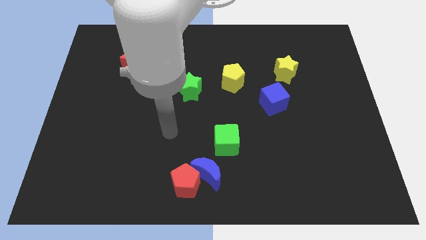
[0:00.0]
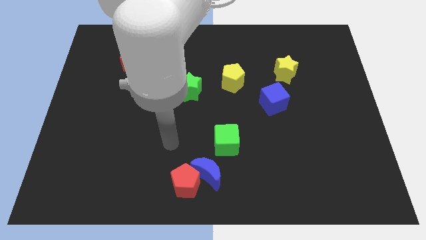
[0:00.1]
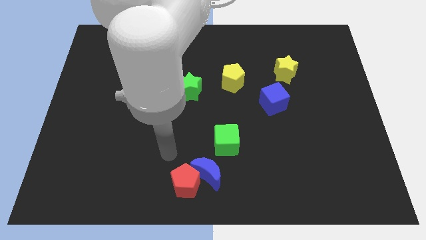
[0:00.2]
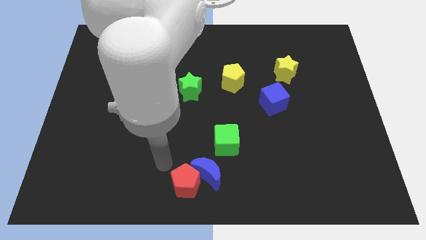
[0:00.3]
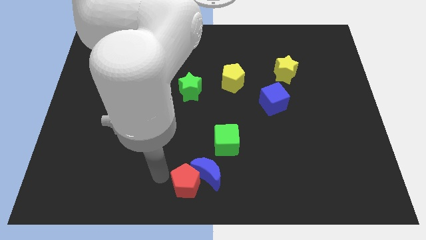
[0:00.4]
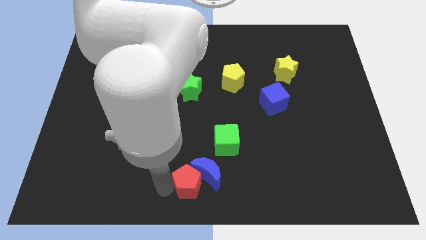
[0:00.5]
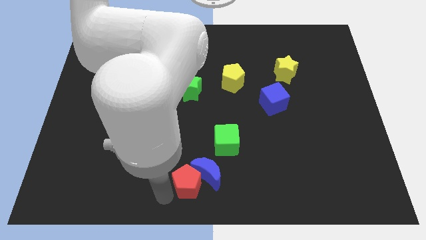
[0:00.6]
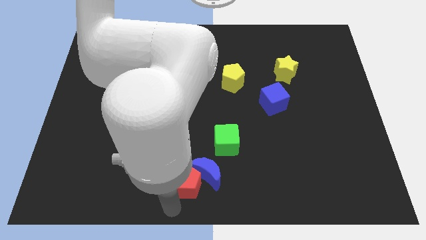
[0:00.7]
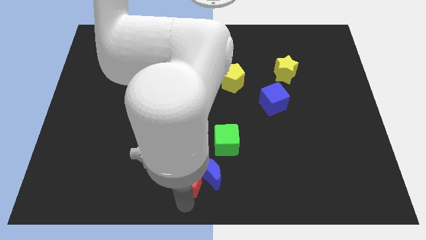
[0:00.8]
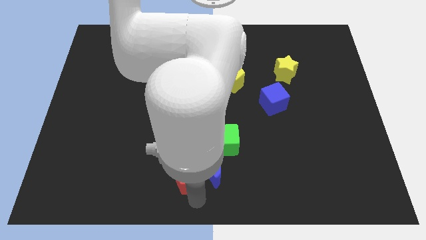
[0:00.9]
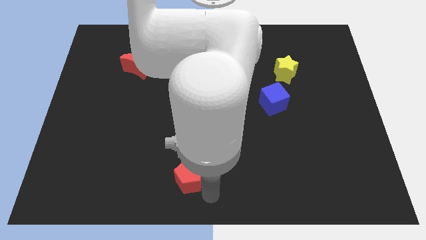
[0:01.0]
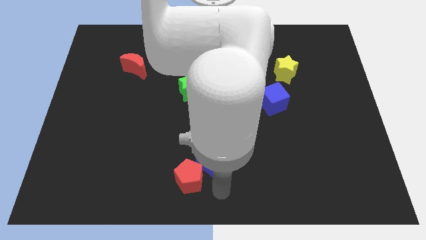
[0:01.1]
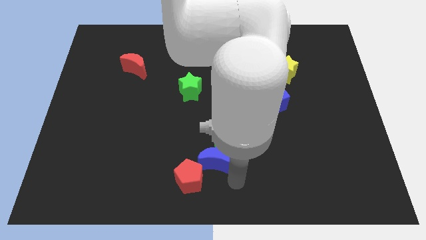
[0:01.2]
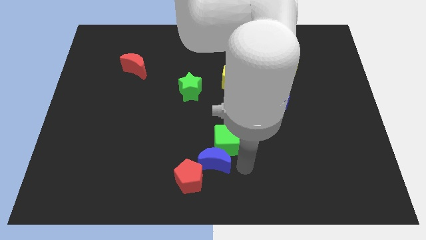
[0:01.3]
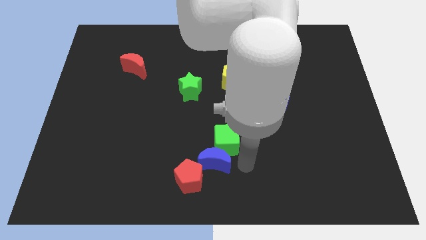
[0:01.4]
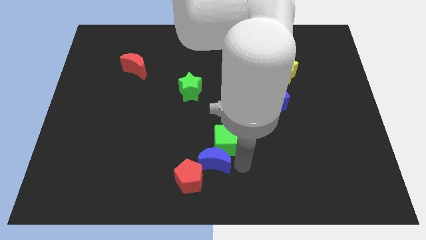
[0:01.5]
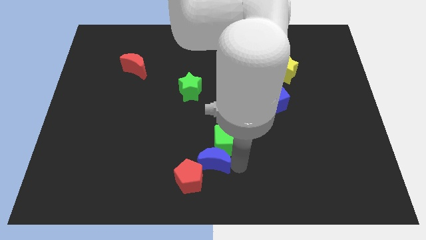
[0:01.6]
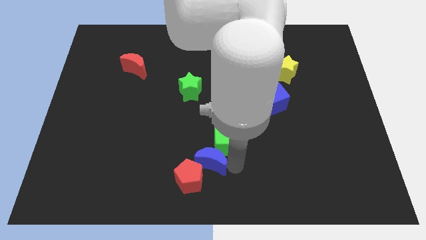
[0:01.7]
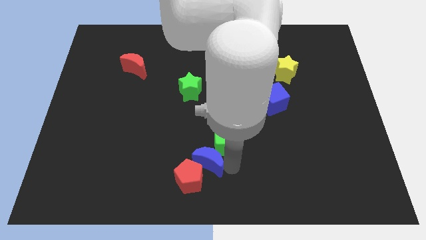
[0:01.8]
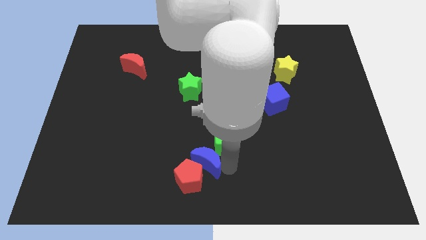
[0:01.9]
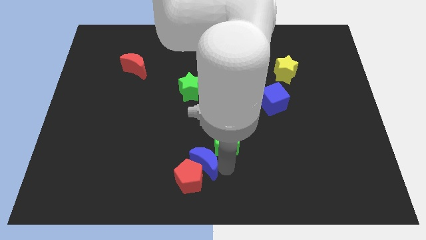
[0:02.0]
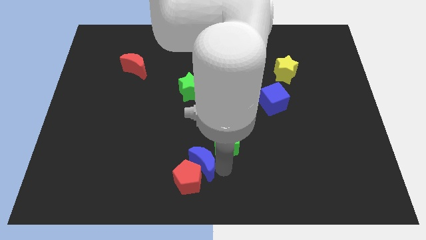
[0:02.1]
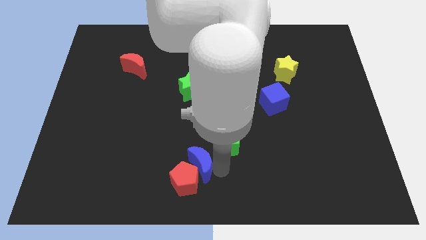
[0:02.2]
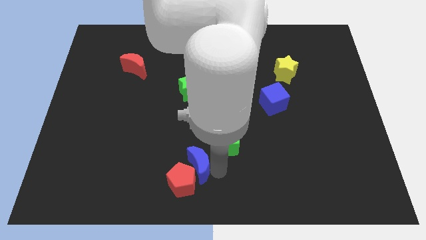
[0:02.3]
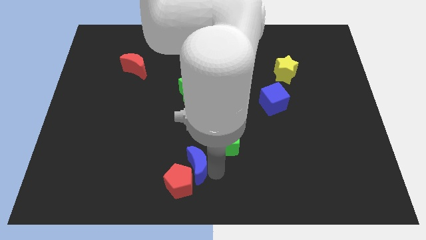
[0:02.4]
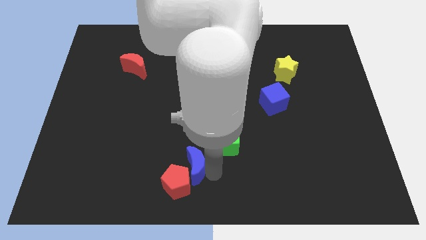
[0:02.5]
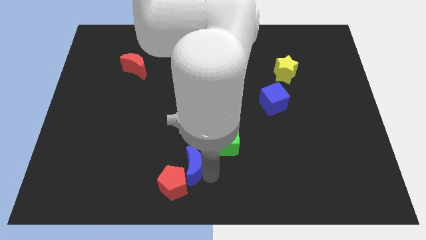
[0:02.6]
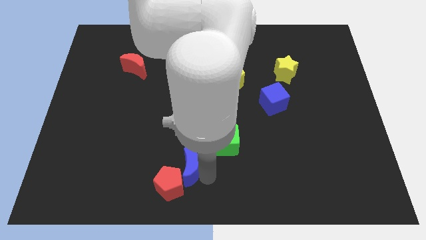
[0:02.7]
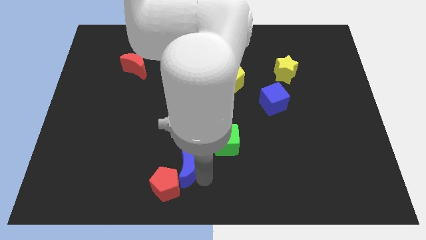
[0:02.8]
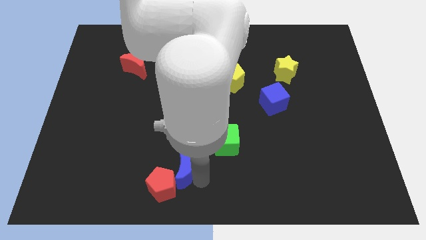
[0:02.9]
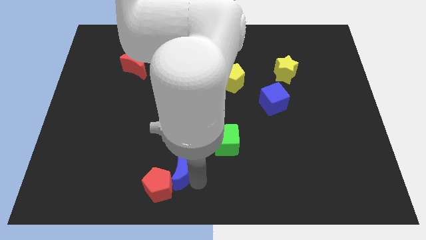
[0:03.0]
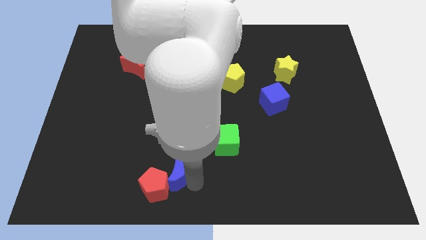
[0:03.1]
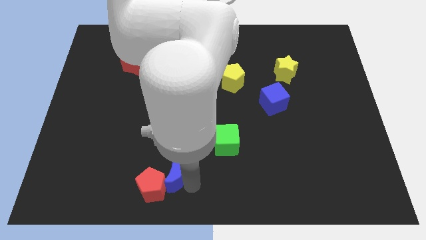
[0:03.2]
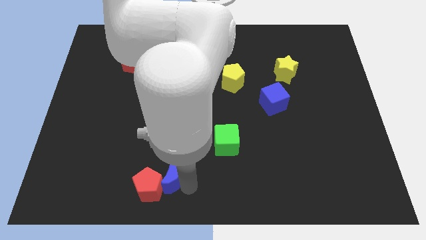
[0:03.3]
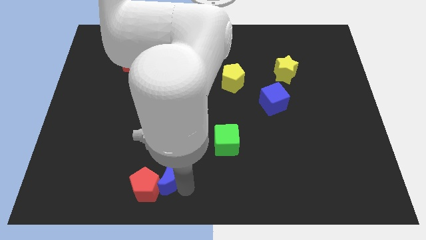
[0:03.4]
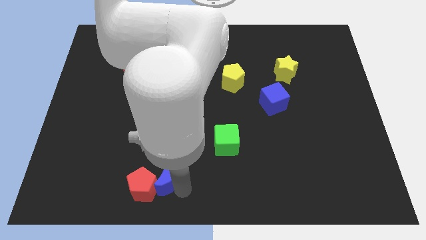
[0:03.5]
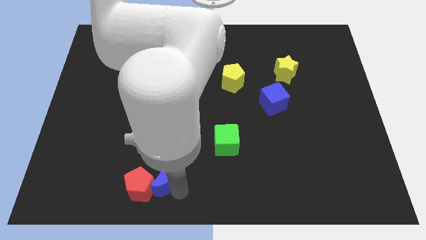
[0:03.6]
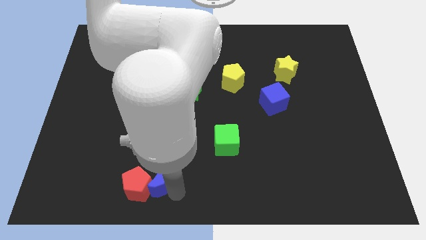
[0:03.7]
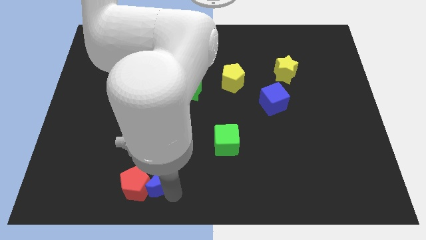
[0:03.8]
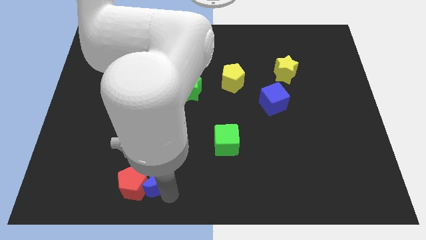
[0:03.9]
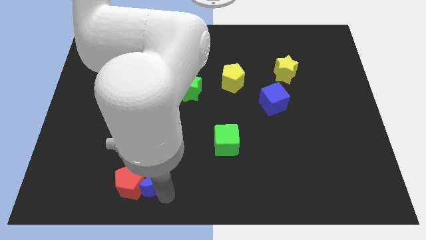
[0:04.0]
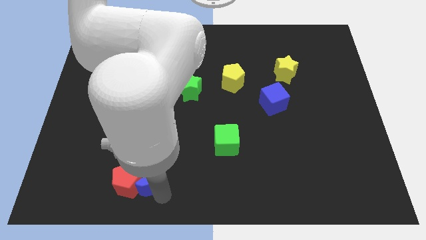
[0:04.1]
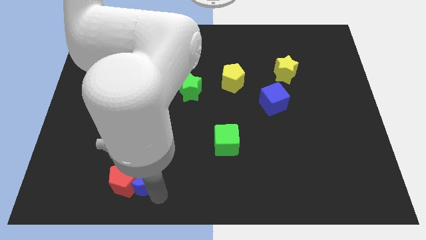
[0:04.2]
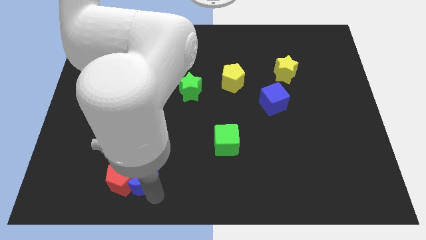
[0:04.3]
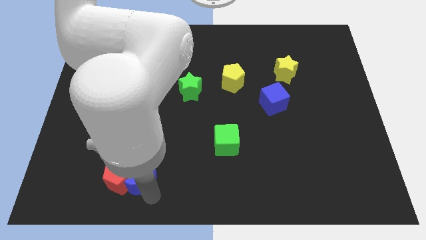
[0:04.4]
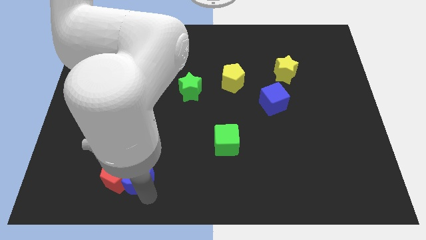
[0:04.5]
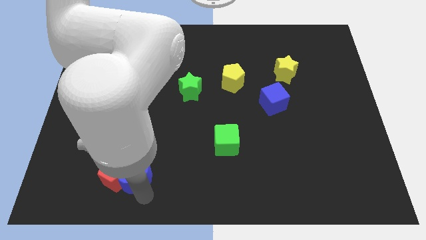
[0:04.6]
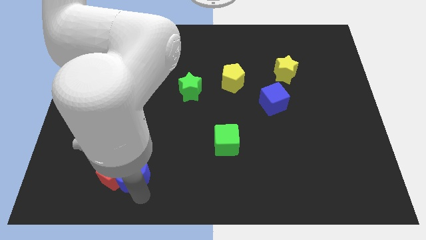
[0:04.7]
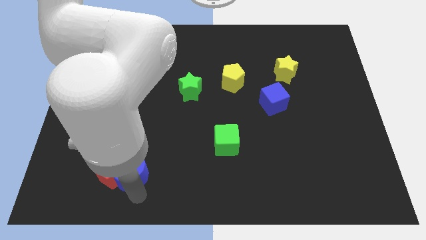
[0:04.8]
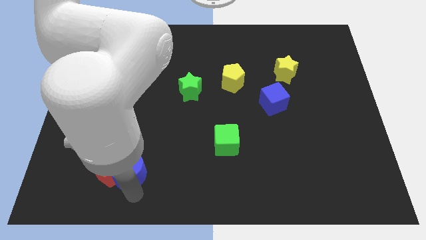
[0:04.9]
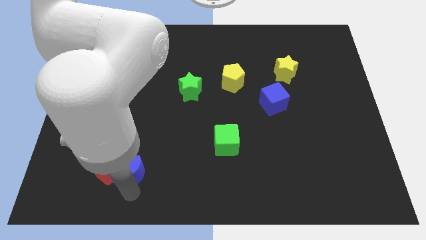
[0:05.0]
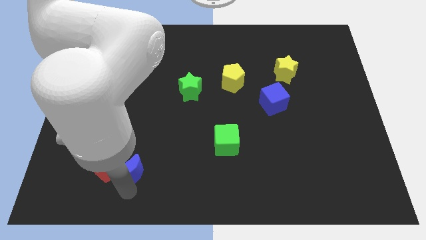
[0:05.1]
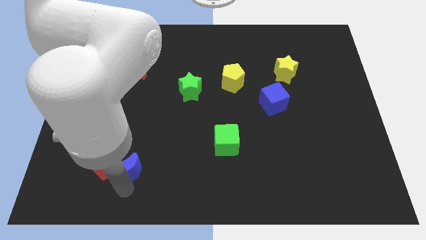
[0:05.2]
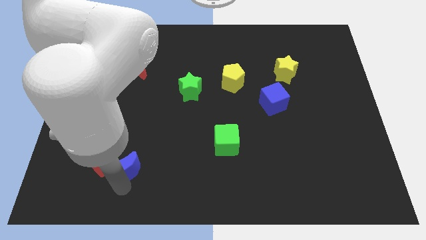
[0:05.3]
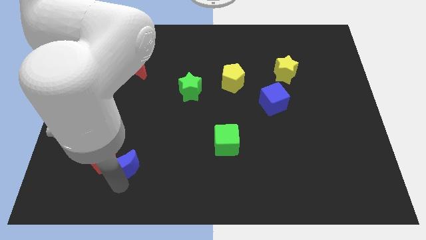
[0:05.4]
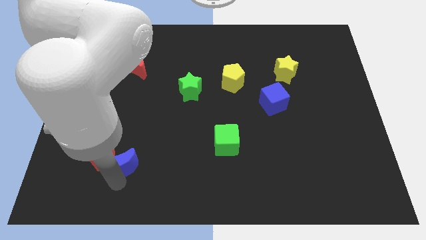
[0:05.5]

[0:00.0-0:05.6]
slightly slide the blue moon up and to the left

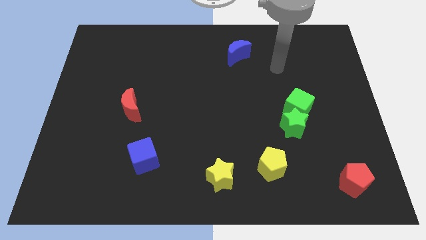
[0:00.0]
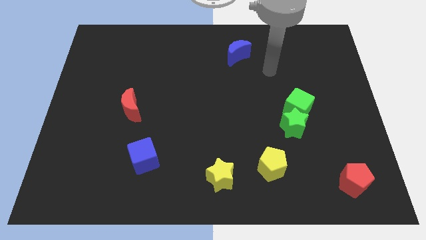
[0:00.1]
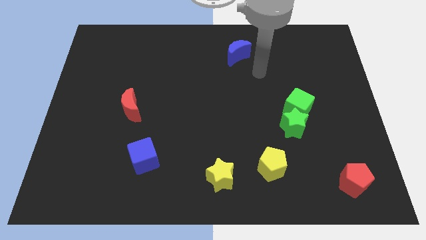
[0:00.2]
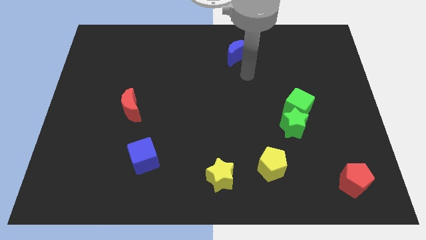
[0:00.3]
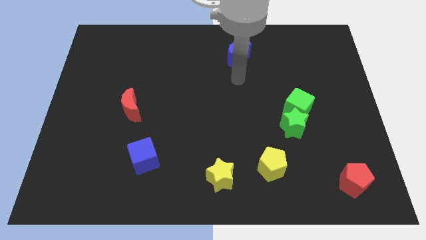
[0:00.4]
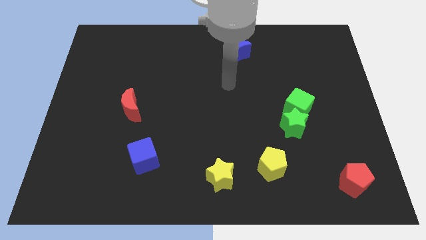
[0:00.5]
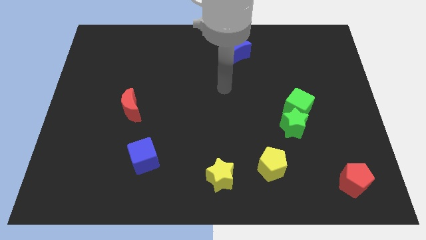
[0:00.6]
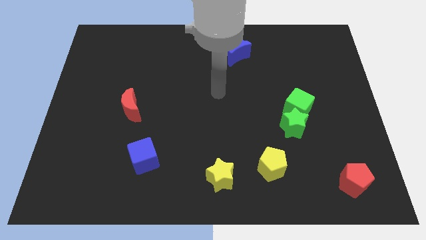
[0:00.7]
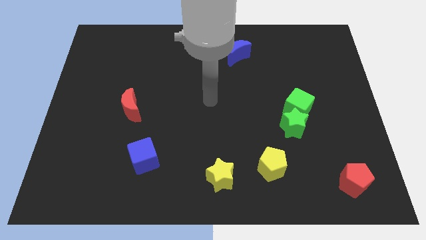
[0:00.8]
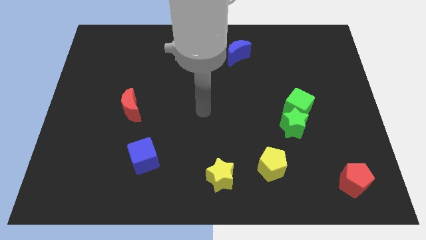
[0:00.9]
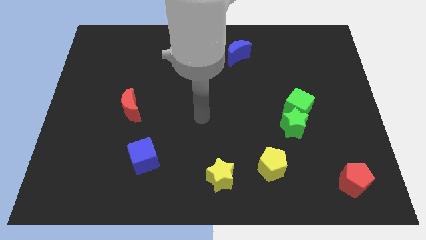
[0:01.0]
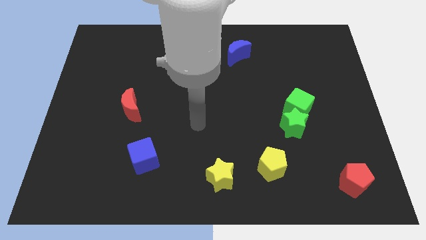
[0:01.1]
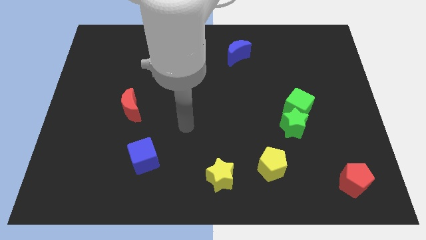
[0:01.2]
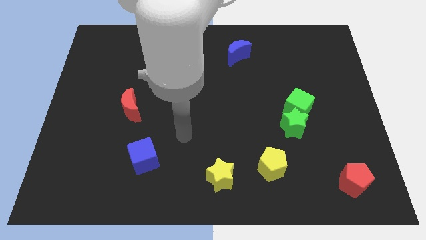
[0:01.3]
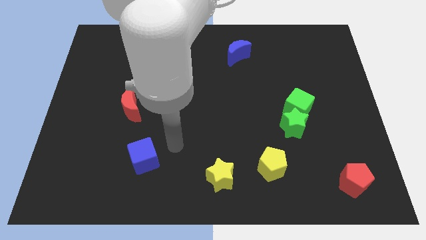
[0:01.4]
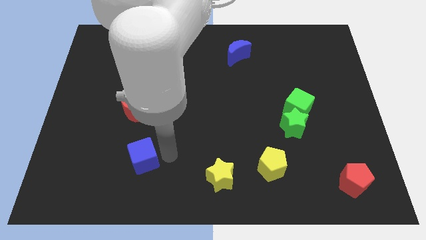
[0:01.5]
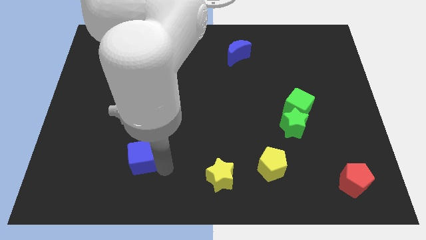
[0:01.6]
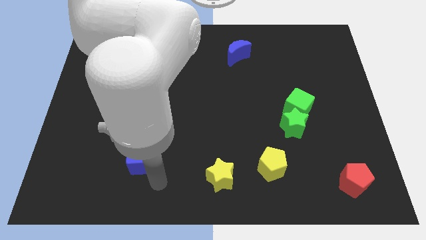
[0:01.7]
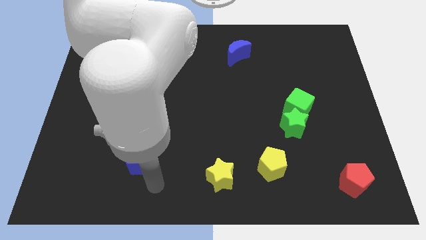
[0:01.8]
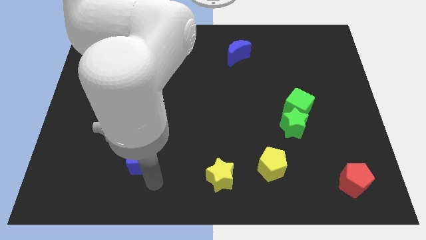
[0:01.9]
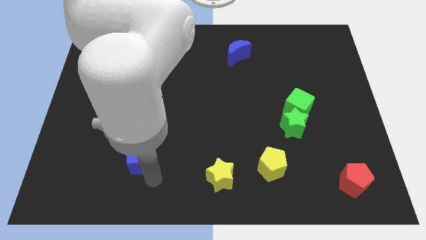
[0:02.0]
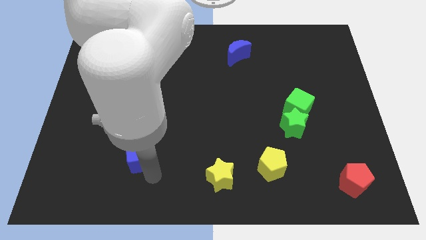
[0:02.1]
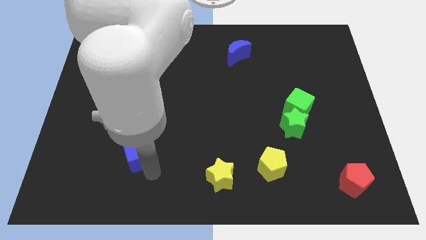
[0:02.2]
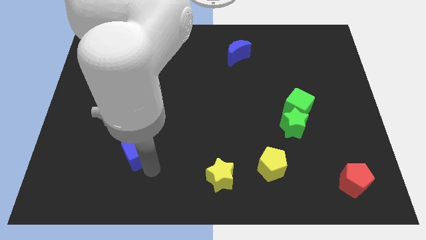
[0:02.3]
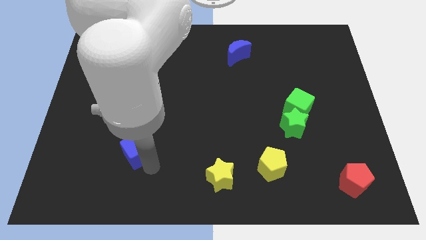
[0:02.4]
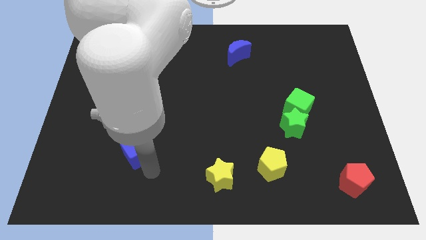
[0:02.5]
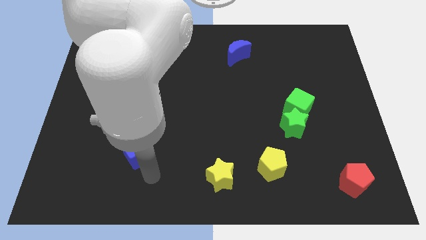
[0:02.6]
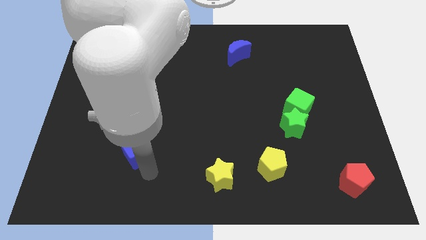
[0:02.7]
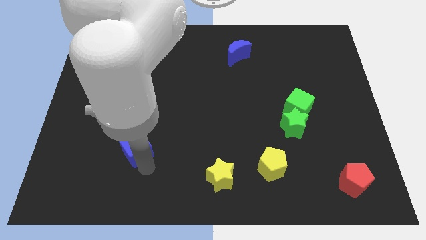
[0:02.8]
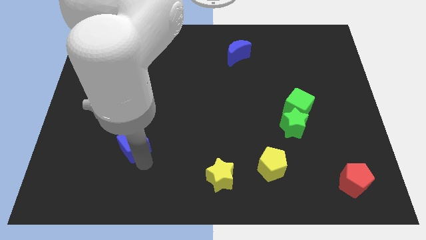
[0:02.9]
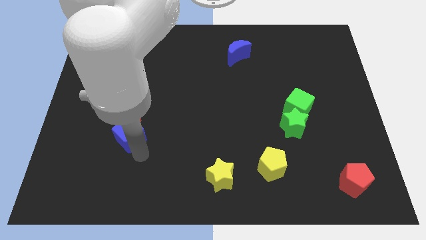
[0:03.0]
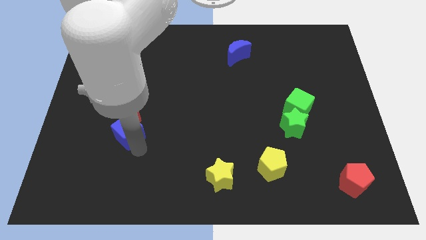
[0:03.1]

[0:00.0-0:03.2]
move the blue cube a little upwards and then to the left

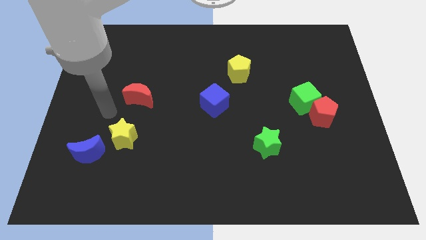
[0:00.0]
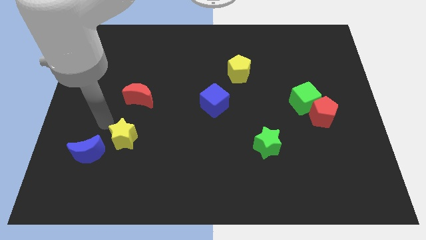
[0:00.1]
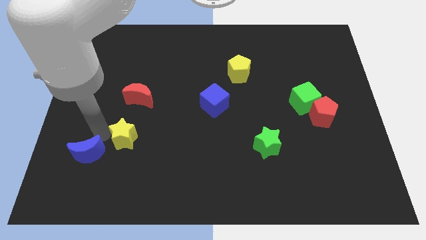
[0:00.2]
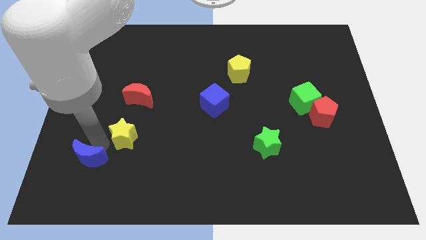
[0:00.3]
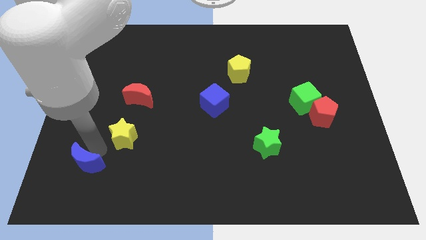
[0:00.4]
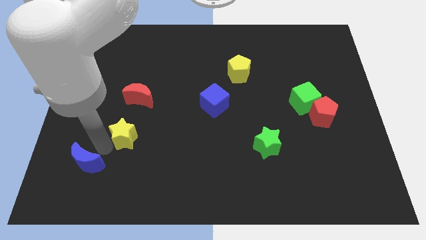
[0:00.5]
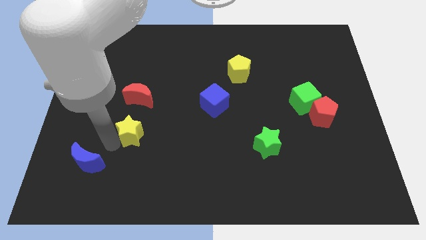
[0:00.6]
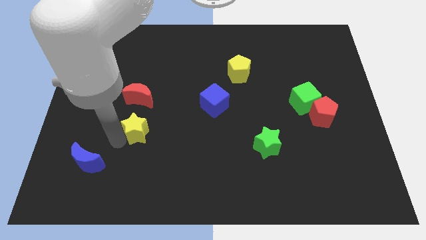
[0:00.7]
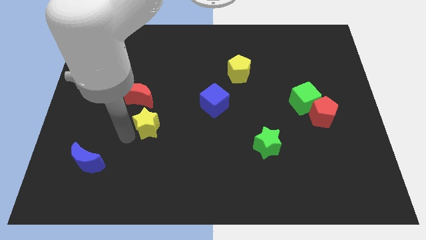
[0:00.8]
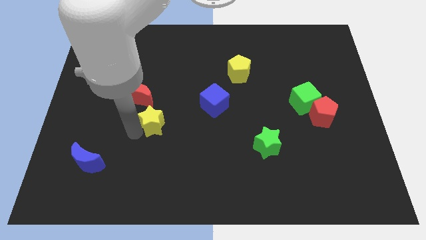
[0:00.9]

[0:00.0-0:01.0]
move the yellow star a bit up and right
